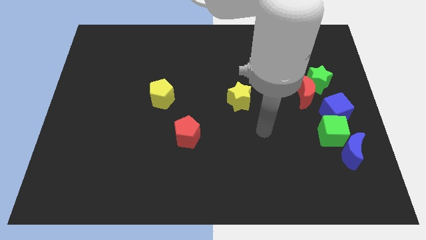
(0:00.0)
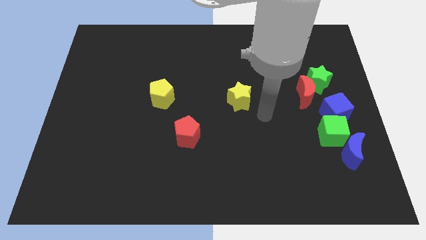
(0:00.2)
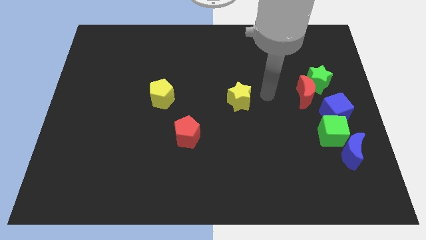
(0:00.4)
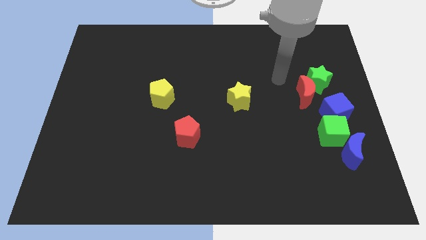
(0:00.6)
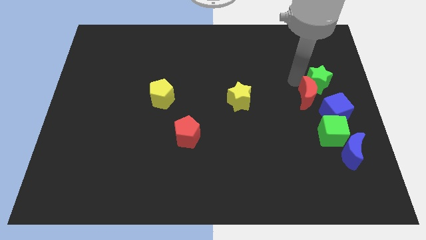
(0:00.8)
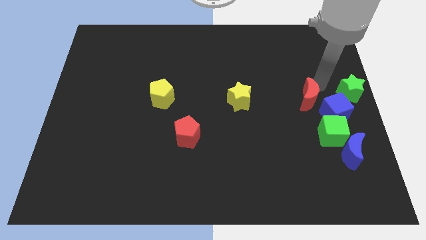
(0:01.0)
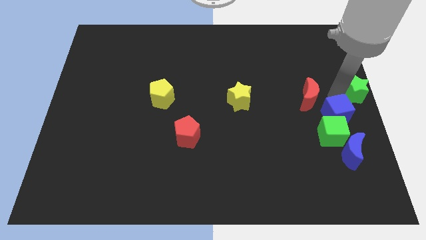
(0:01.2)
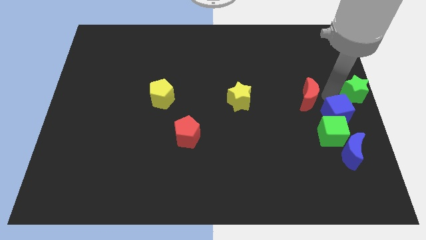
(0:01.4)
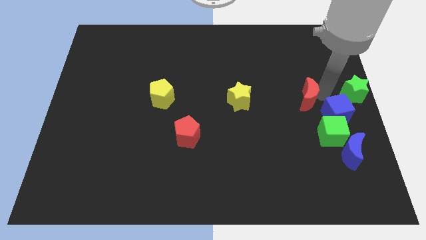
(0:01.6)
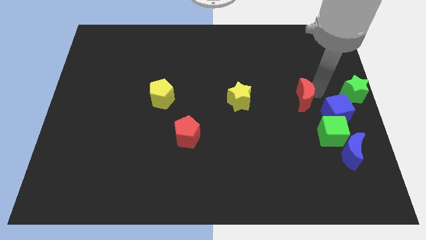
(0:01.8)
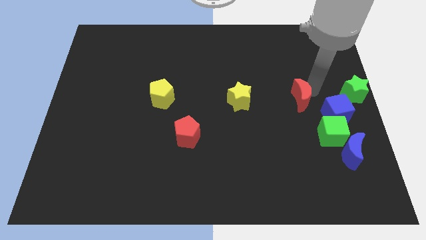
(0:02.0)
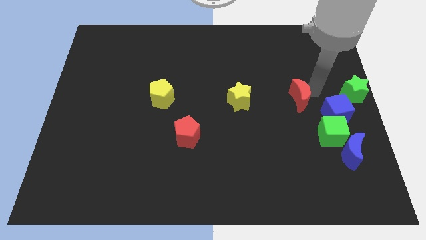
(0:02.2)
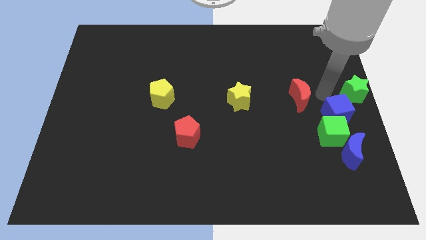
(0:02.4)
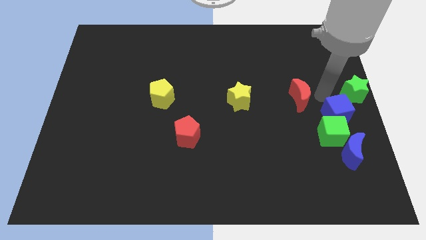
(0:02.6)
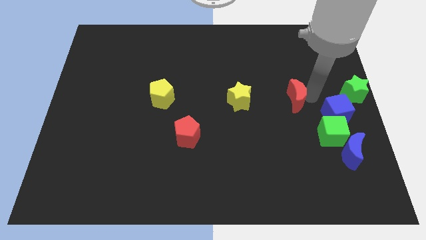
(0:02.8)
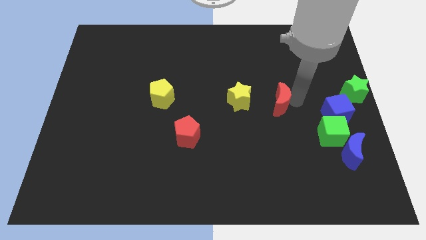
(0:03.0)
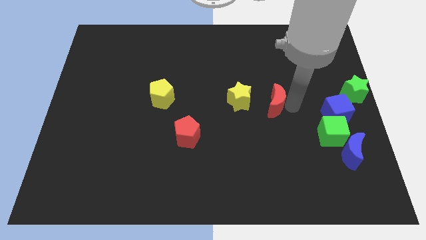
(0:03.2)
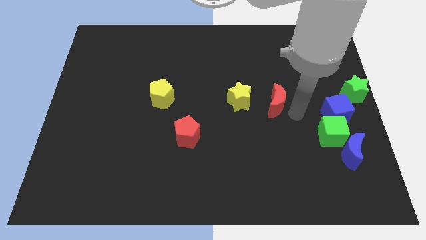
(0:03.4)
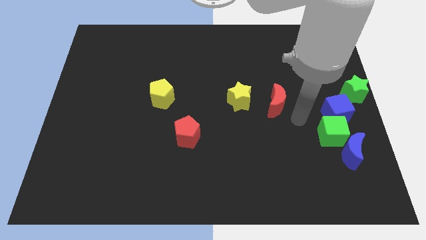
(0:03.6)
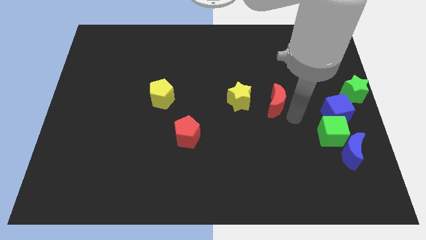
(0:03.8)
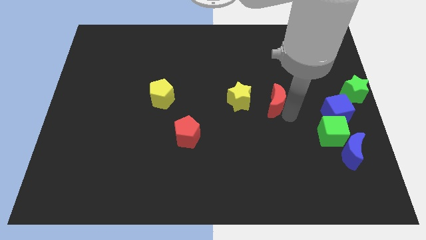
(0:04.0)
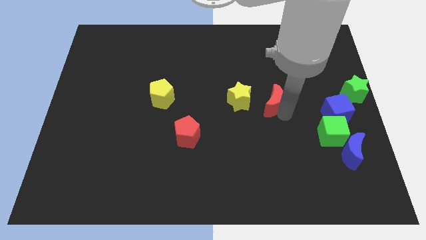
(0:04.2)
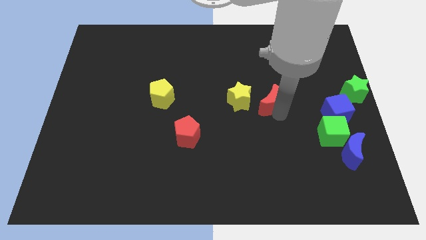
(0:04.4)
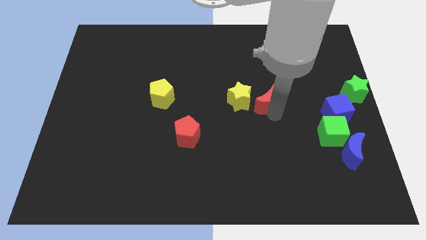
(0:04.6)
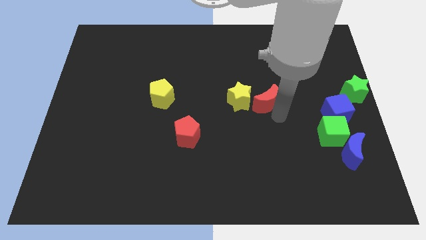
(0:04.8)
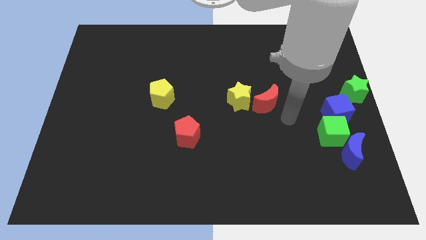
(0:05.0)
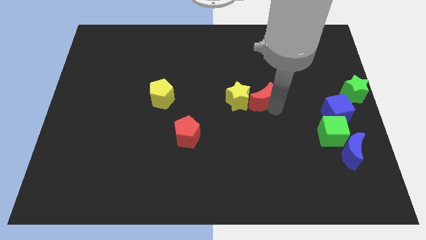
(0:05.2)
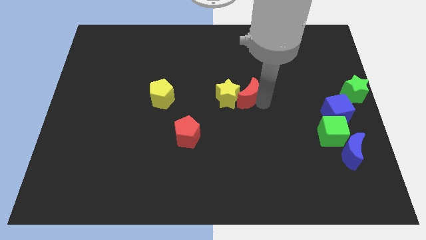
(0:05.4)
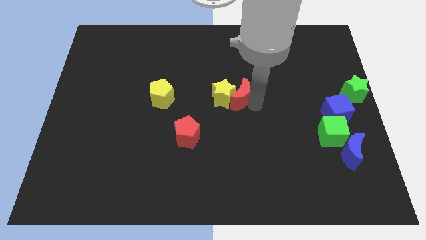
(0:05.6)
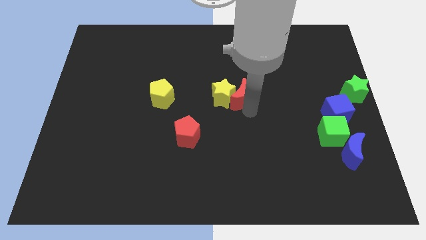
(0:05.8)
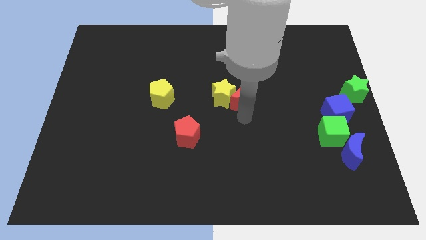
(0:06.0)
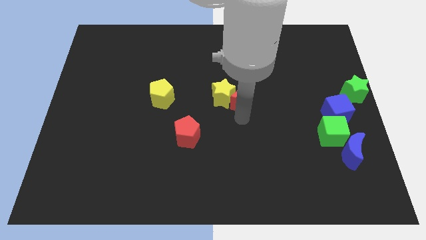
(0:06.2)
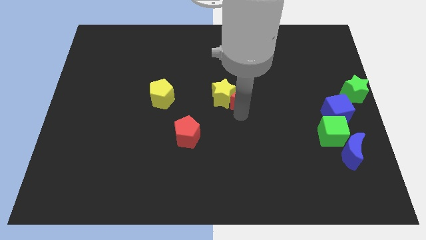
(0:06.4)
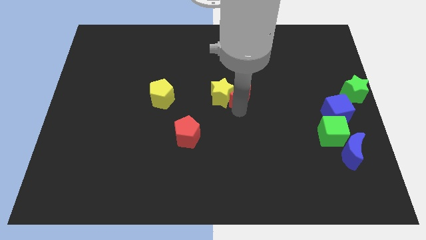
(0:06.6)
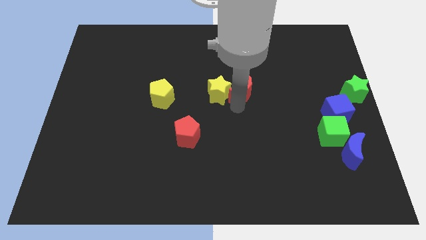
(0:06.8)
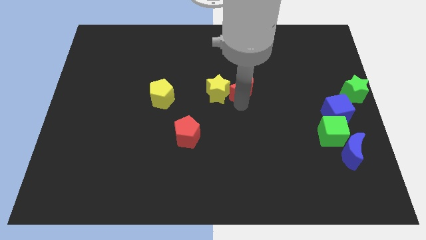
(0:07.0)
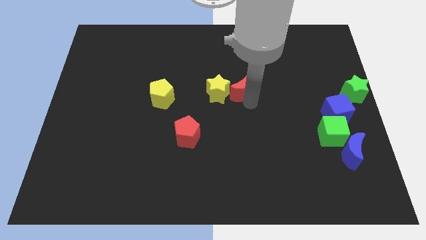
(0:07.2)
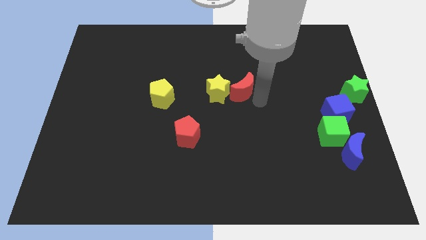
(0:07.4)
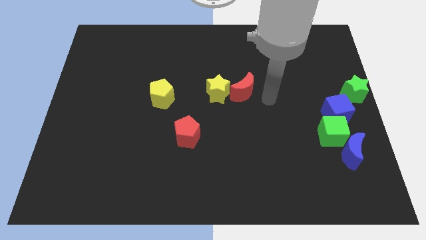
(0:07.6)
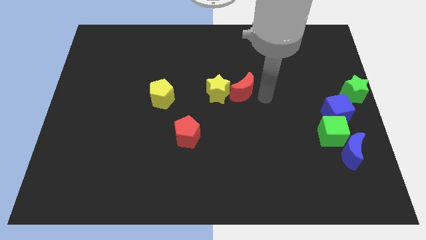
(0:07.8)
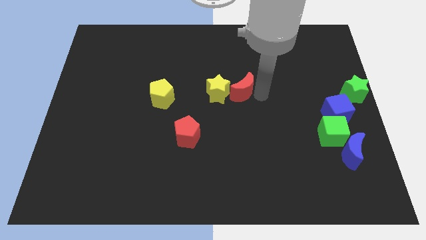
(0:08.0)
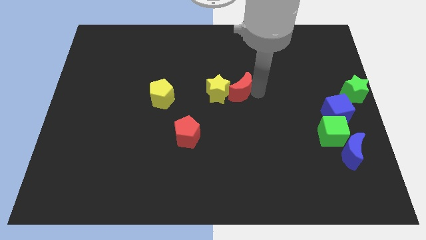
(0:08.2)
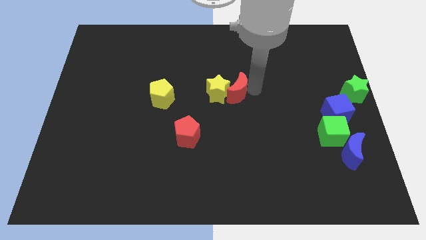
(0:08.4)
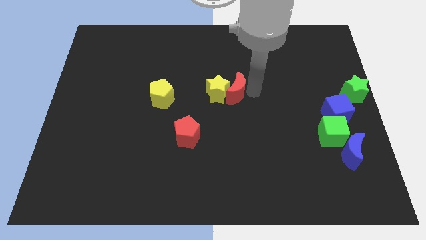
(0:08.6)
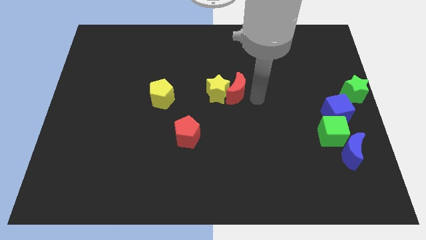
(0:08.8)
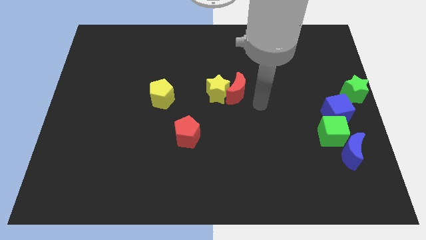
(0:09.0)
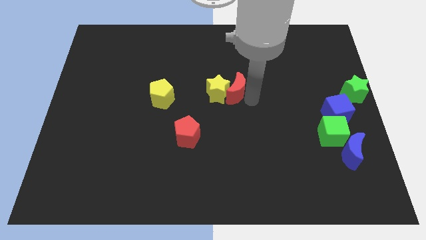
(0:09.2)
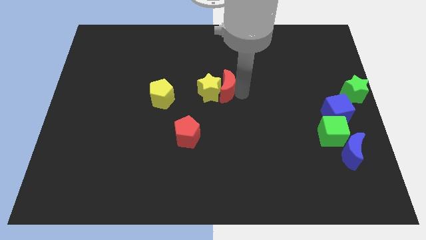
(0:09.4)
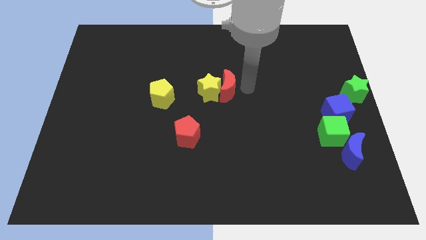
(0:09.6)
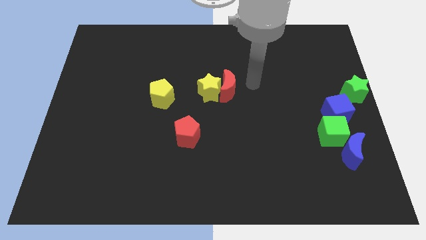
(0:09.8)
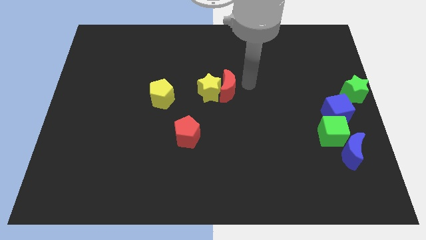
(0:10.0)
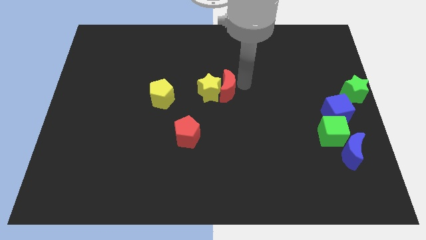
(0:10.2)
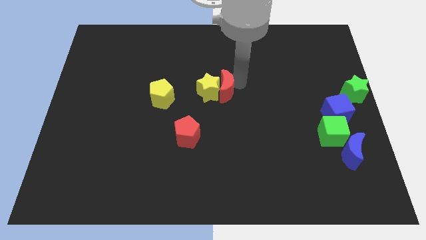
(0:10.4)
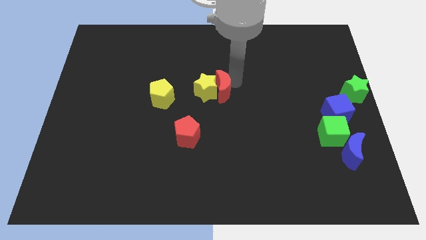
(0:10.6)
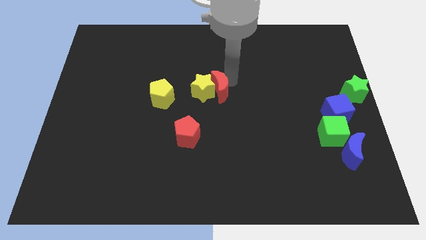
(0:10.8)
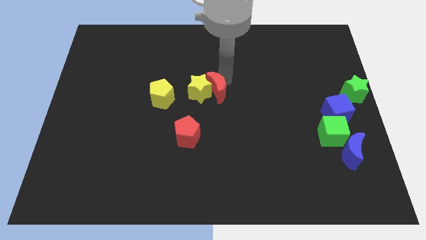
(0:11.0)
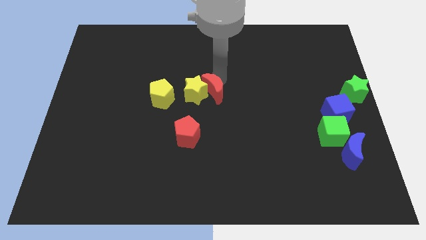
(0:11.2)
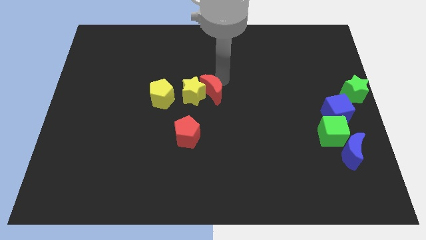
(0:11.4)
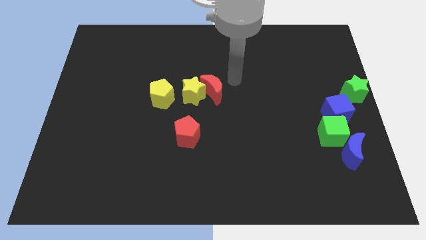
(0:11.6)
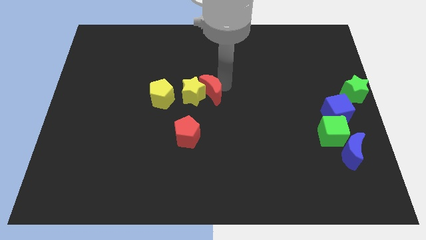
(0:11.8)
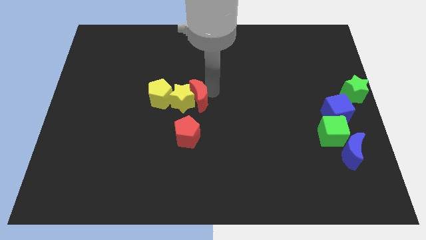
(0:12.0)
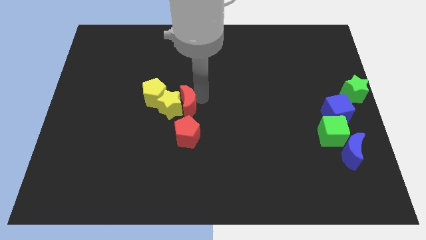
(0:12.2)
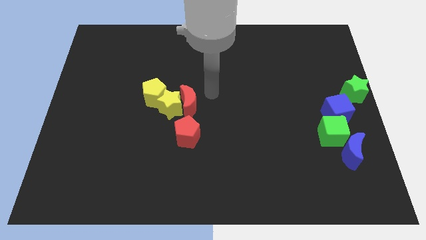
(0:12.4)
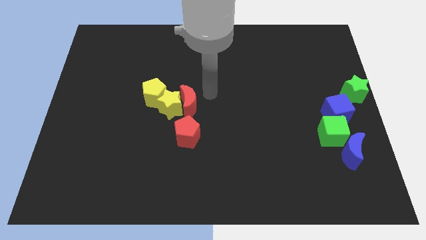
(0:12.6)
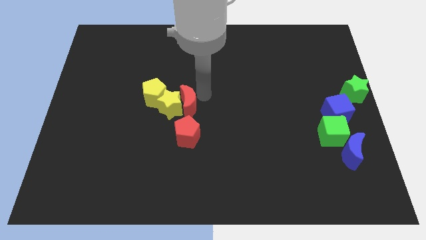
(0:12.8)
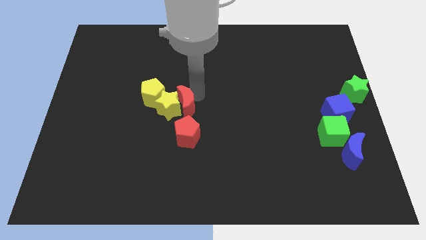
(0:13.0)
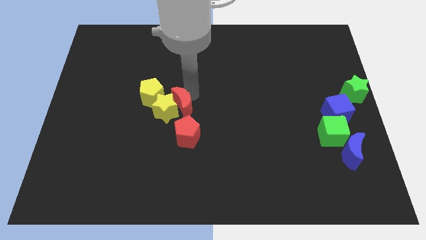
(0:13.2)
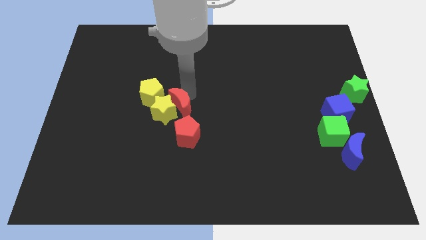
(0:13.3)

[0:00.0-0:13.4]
push the red moon to the top left side of the red pentagon
